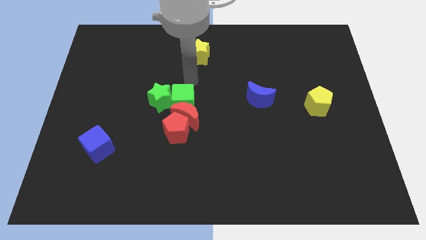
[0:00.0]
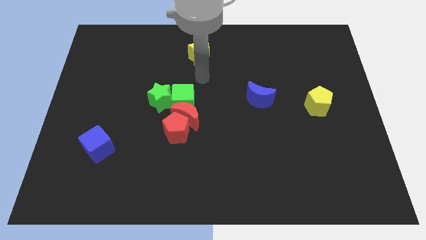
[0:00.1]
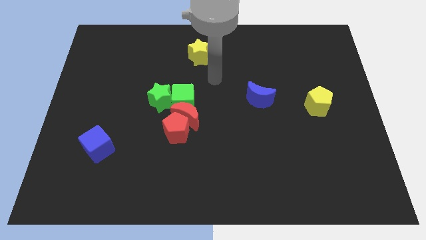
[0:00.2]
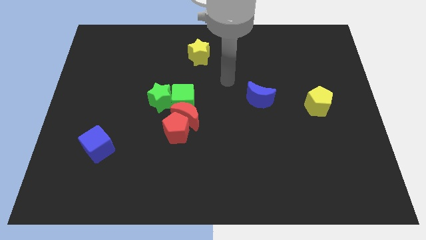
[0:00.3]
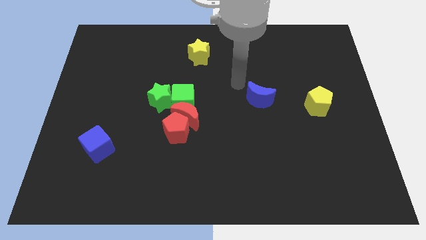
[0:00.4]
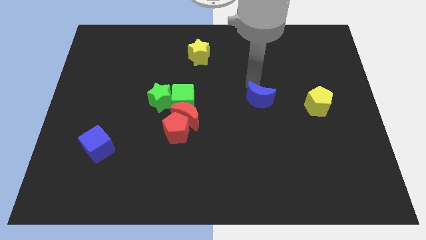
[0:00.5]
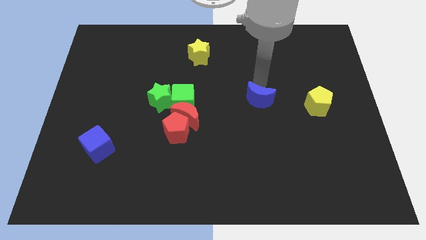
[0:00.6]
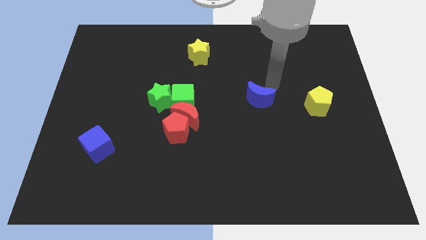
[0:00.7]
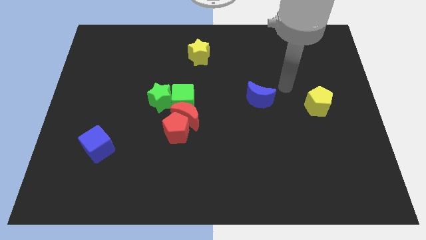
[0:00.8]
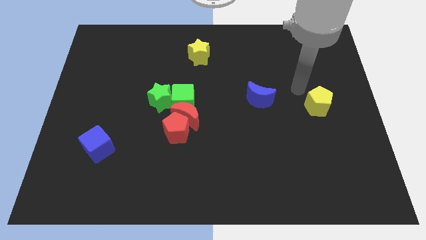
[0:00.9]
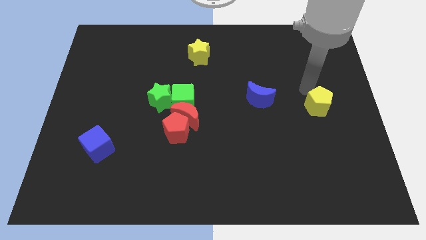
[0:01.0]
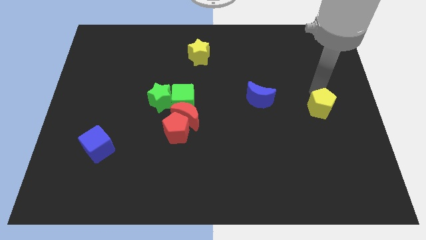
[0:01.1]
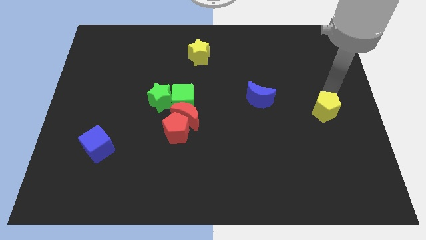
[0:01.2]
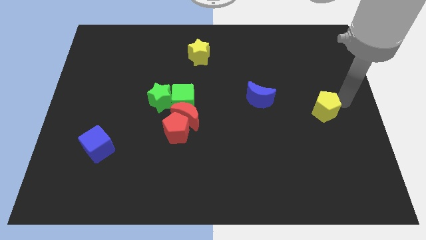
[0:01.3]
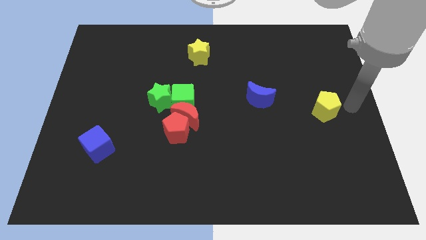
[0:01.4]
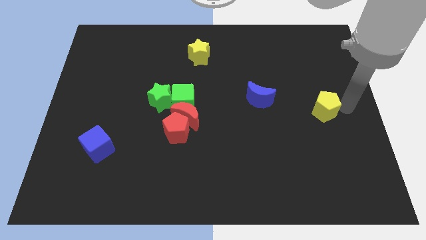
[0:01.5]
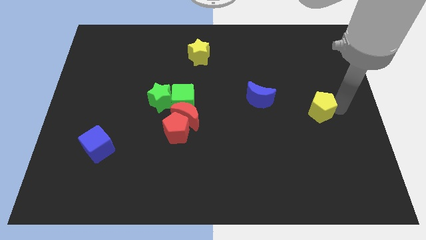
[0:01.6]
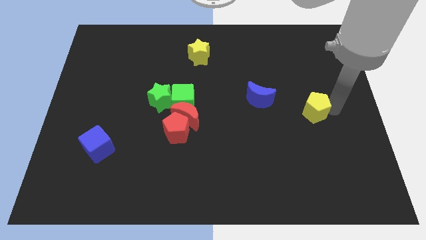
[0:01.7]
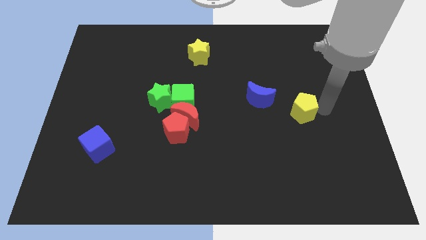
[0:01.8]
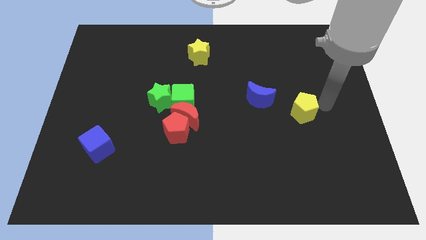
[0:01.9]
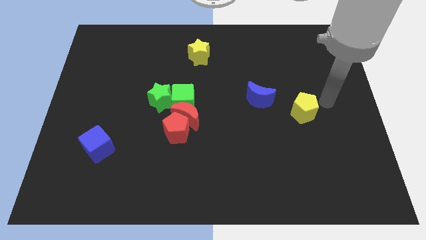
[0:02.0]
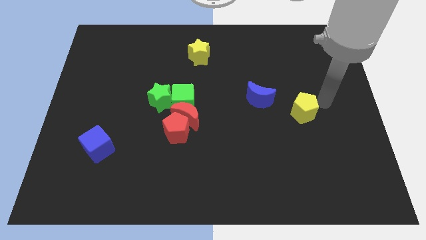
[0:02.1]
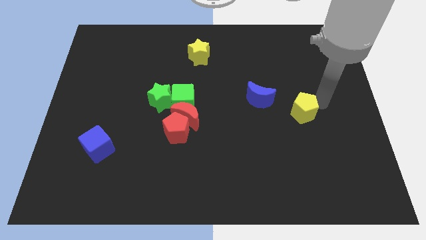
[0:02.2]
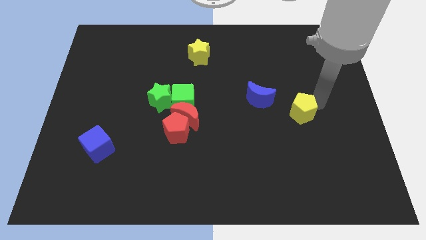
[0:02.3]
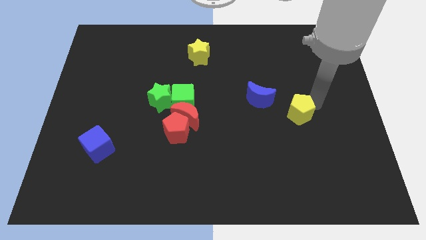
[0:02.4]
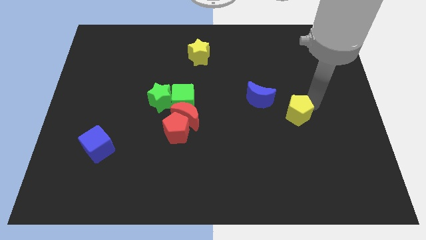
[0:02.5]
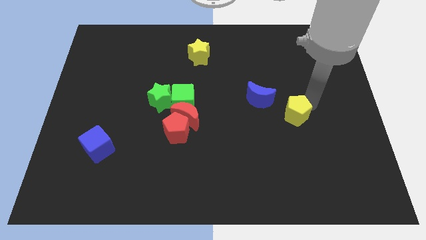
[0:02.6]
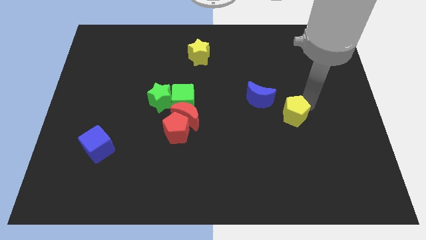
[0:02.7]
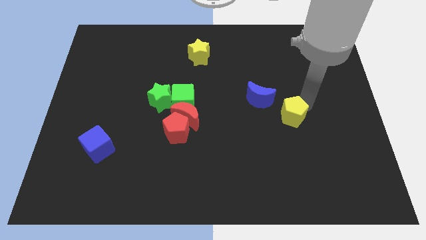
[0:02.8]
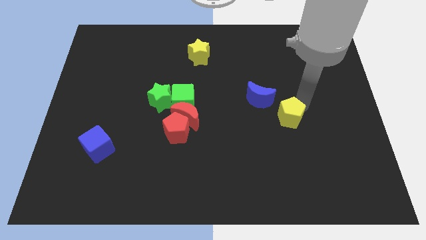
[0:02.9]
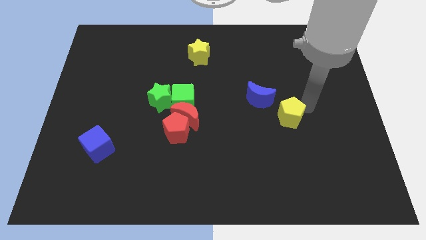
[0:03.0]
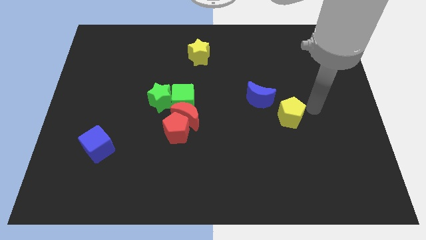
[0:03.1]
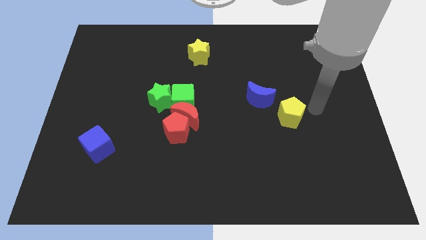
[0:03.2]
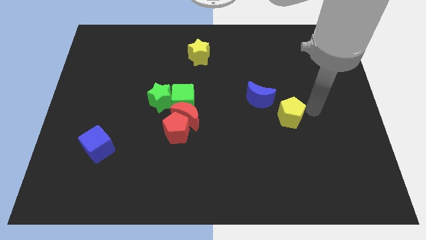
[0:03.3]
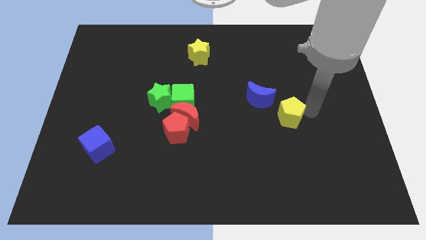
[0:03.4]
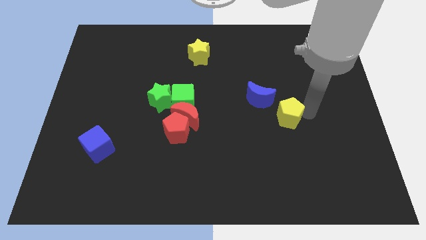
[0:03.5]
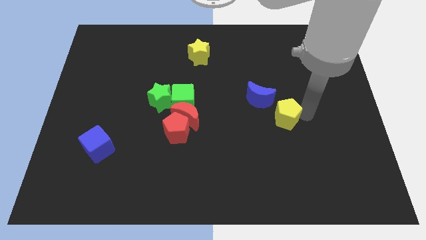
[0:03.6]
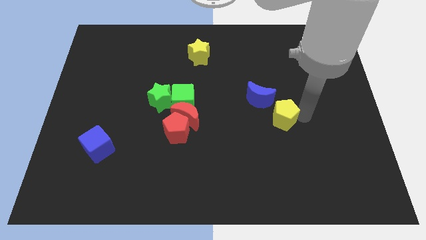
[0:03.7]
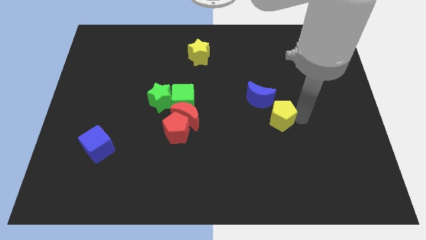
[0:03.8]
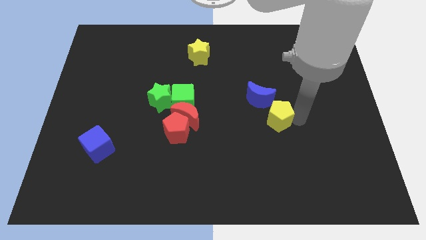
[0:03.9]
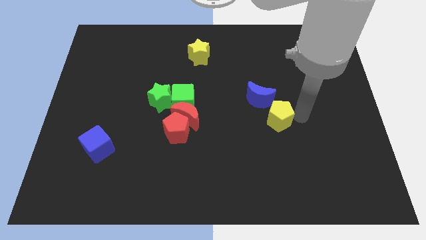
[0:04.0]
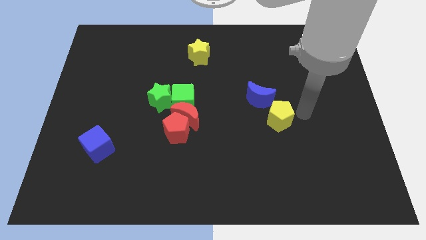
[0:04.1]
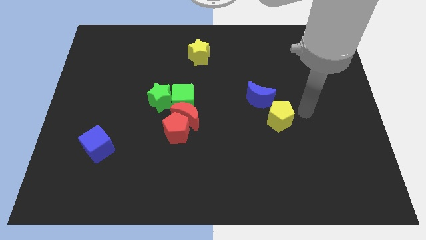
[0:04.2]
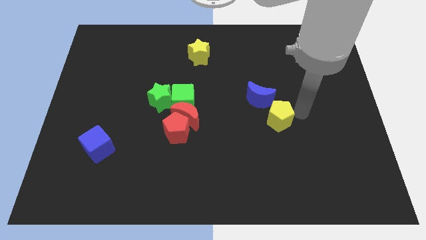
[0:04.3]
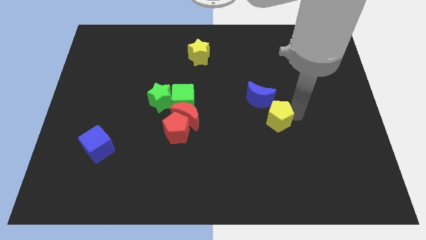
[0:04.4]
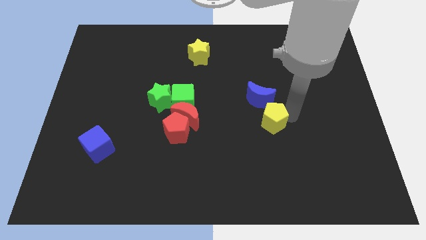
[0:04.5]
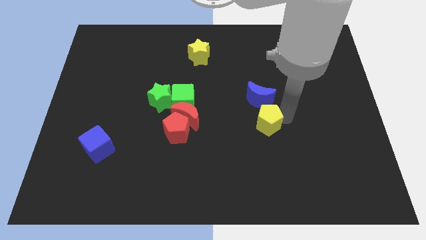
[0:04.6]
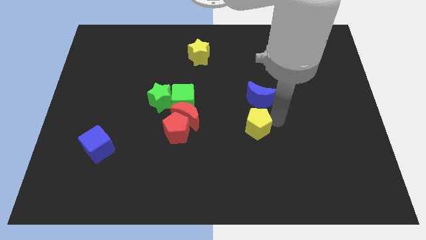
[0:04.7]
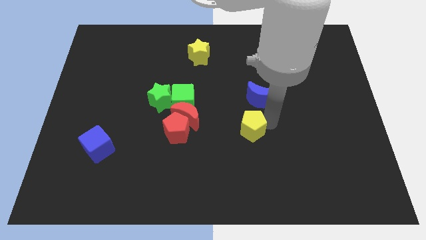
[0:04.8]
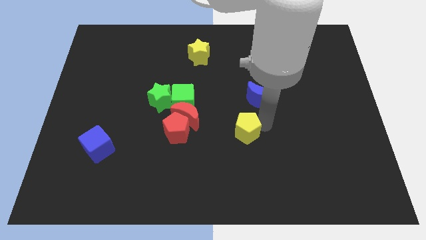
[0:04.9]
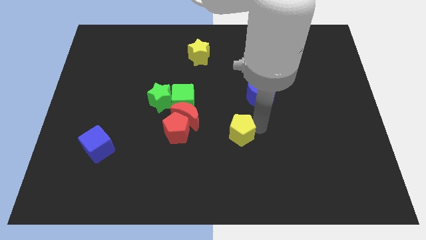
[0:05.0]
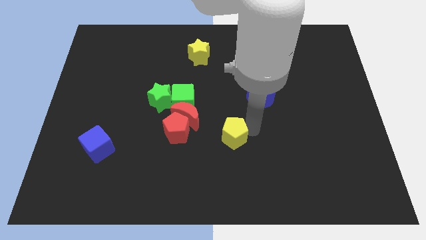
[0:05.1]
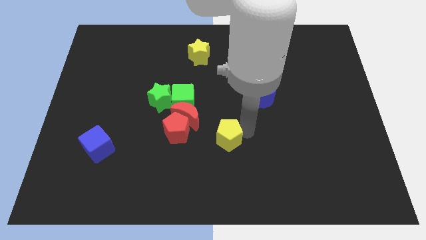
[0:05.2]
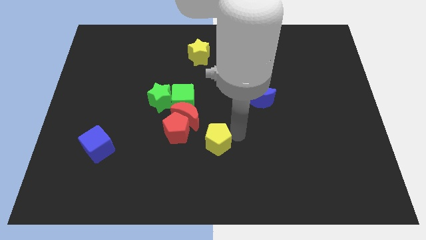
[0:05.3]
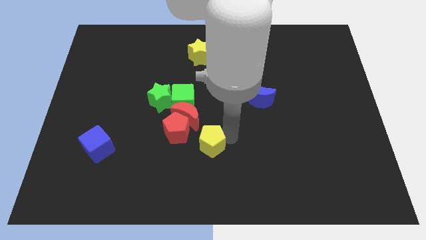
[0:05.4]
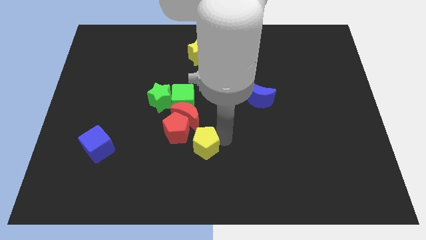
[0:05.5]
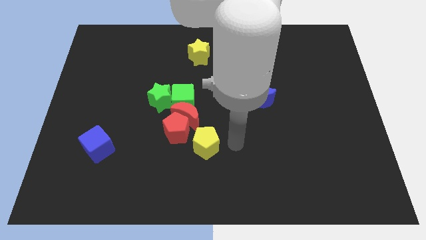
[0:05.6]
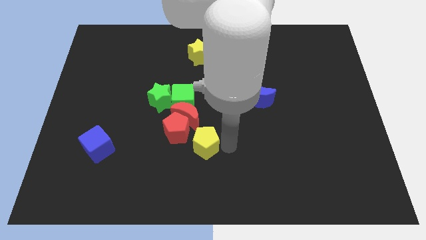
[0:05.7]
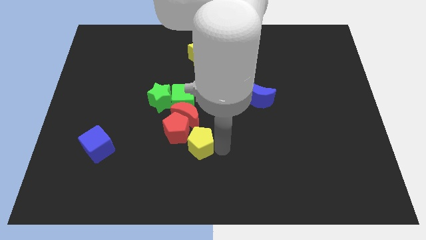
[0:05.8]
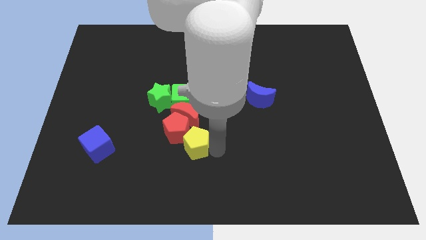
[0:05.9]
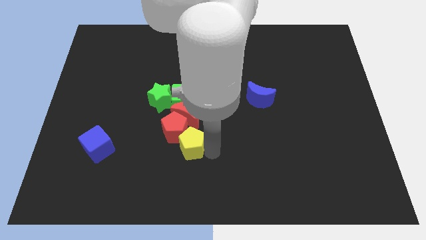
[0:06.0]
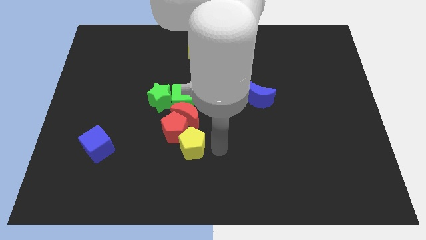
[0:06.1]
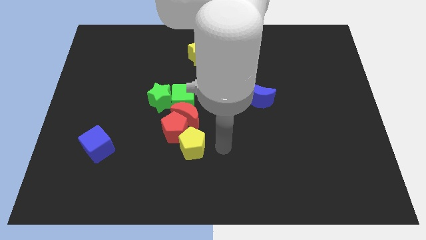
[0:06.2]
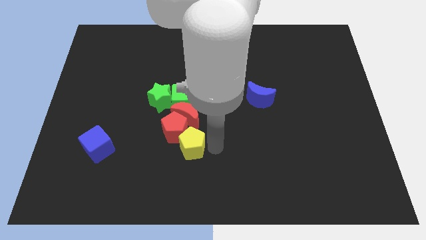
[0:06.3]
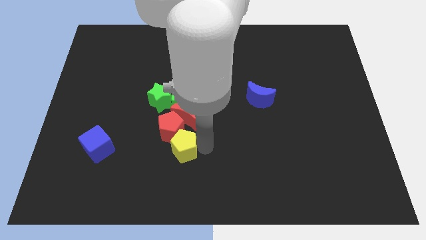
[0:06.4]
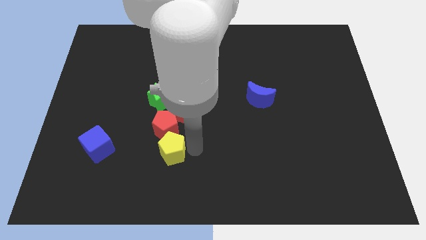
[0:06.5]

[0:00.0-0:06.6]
put the yellow pentagon right of the blue cube
